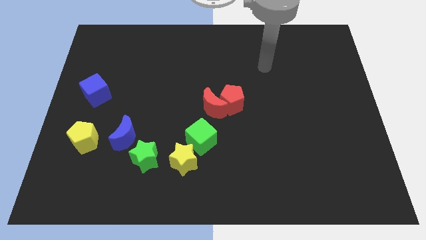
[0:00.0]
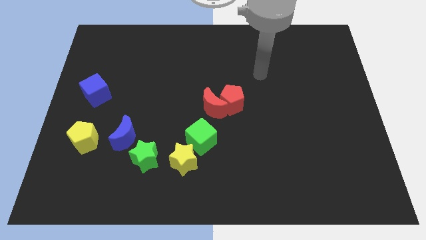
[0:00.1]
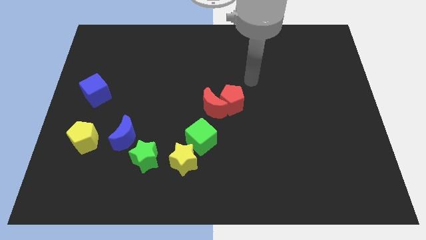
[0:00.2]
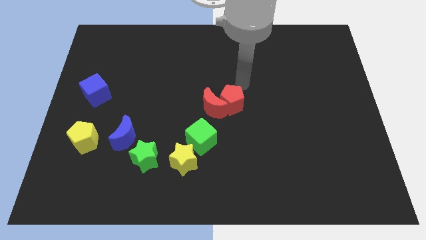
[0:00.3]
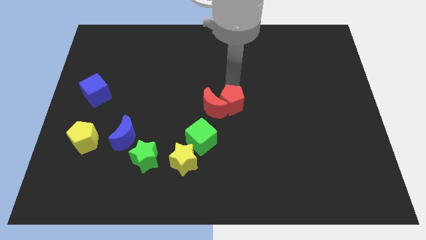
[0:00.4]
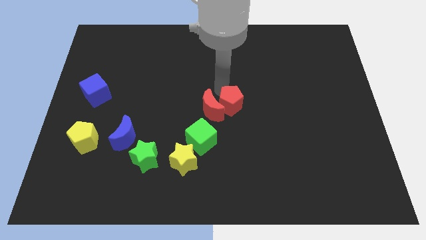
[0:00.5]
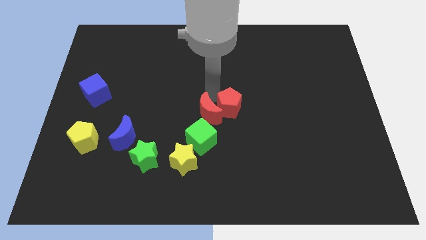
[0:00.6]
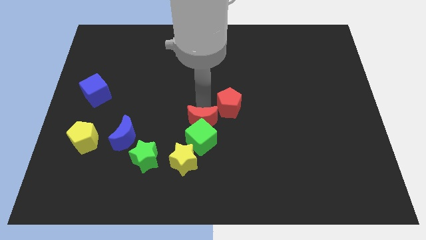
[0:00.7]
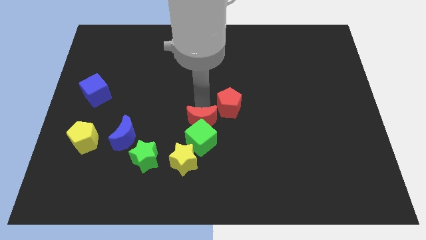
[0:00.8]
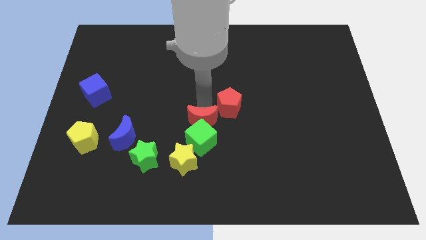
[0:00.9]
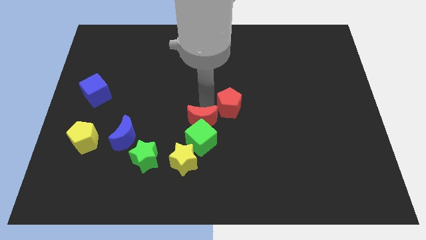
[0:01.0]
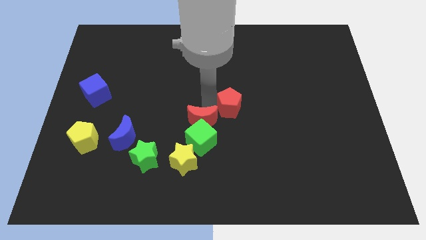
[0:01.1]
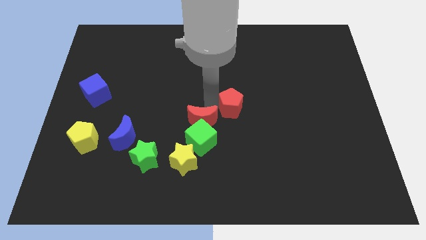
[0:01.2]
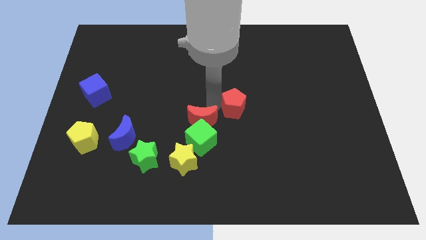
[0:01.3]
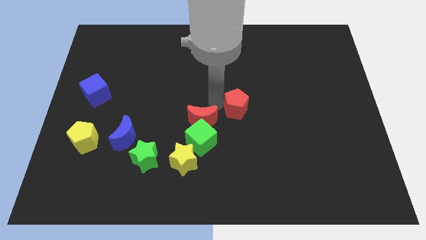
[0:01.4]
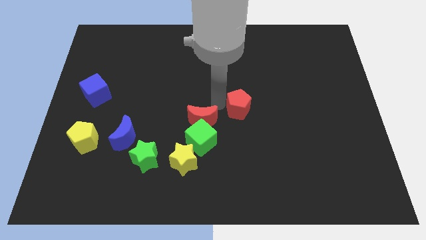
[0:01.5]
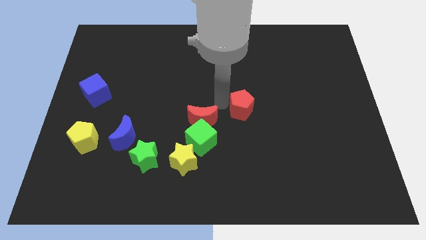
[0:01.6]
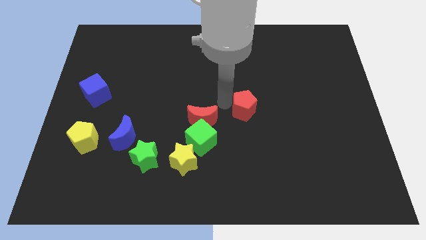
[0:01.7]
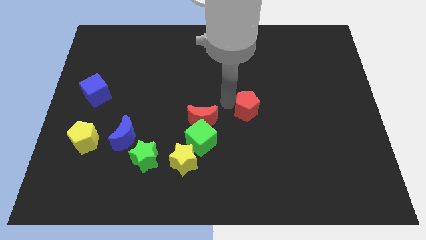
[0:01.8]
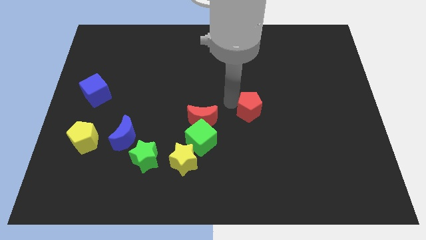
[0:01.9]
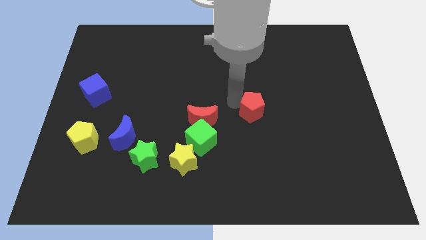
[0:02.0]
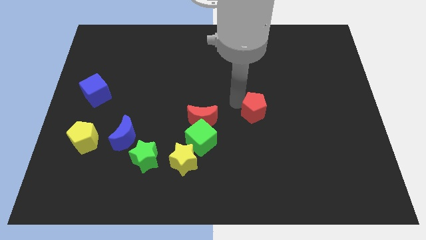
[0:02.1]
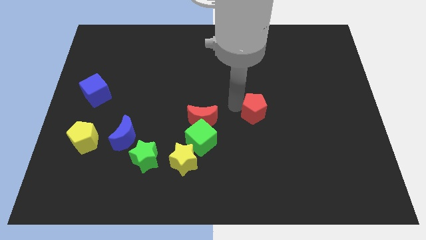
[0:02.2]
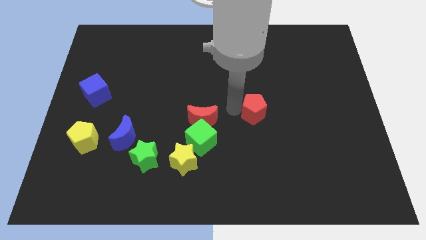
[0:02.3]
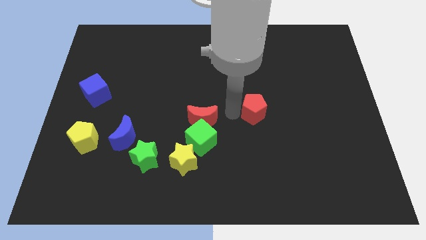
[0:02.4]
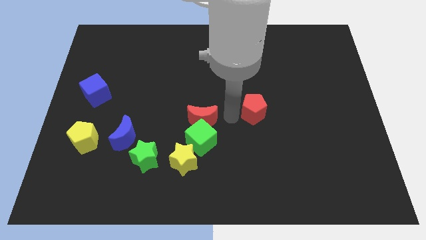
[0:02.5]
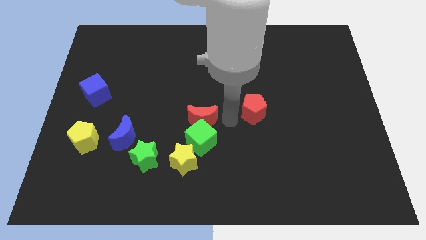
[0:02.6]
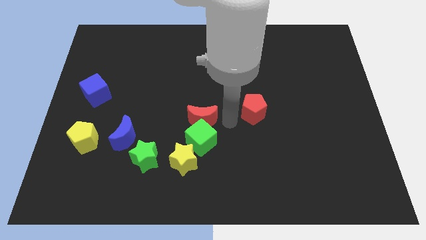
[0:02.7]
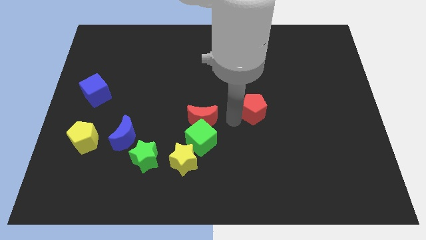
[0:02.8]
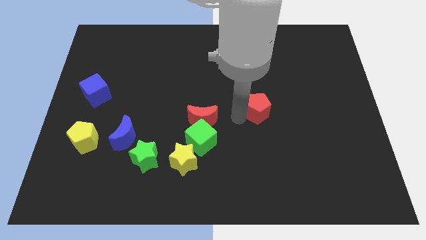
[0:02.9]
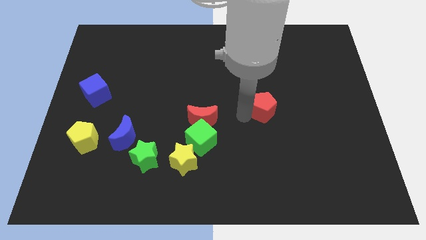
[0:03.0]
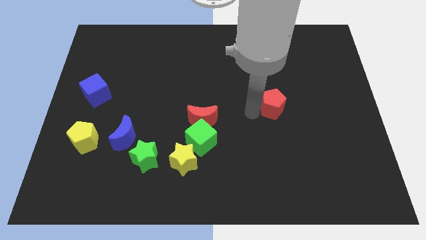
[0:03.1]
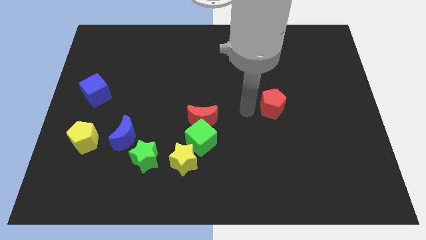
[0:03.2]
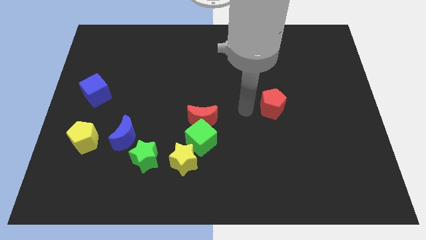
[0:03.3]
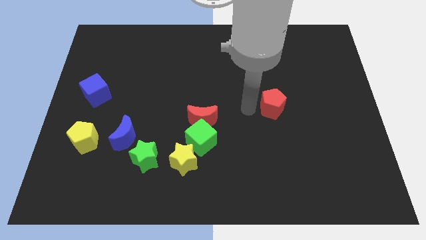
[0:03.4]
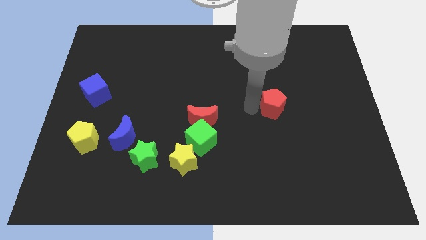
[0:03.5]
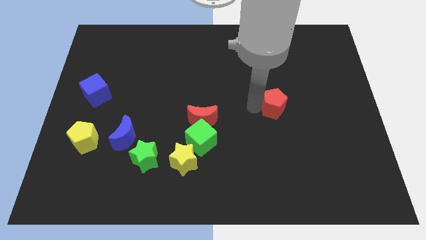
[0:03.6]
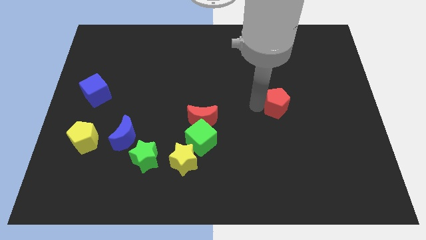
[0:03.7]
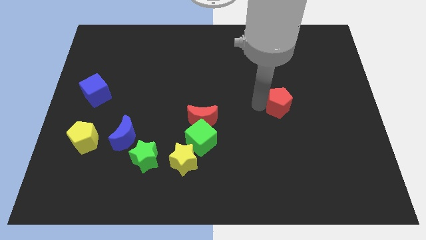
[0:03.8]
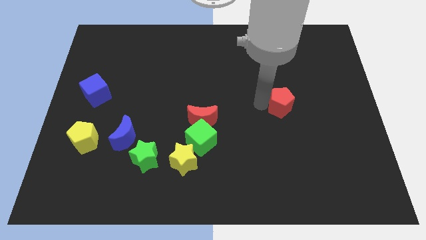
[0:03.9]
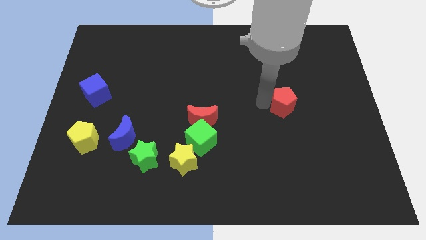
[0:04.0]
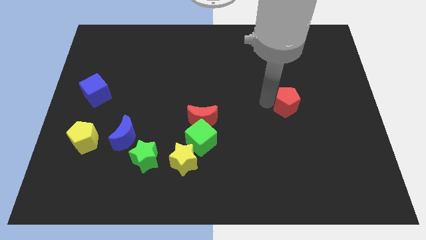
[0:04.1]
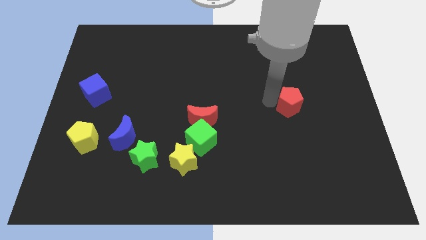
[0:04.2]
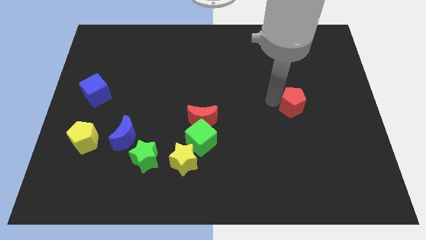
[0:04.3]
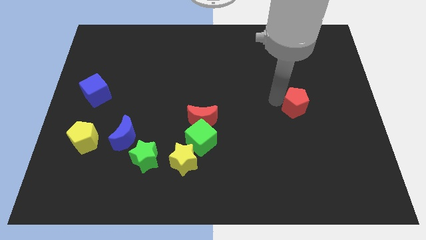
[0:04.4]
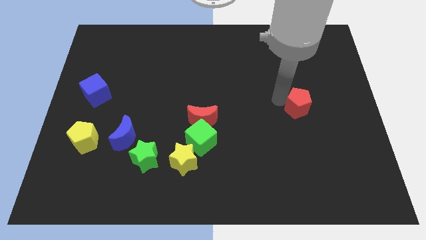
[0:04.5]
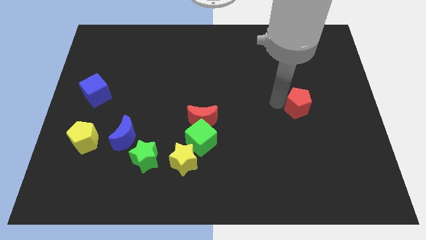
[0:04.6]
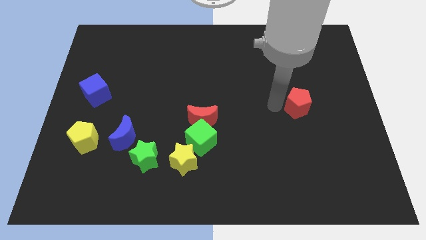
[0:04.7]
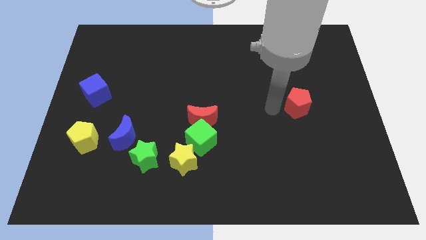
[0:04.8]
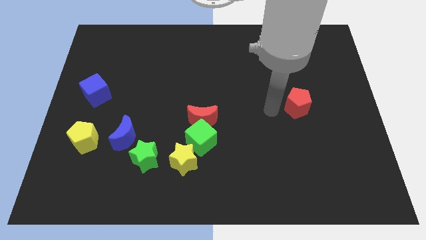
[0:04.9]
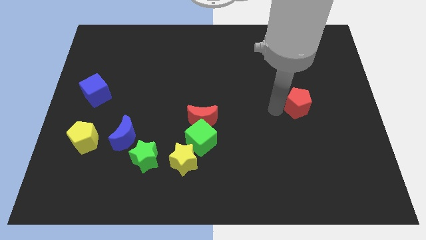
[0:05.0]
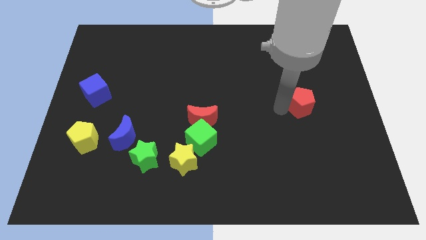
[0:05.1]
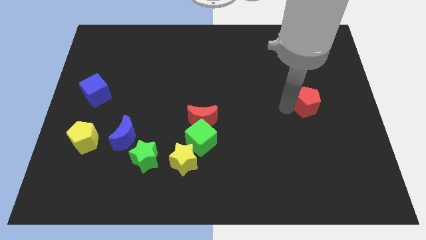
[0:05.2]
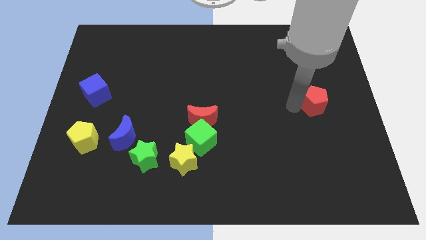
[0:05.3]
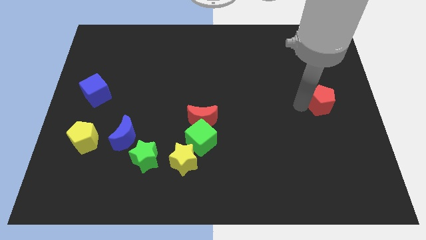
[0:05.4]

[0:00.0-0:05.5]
push the red pentagon to the right side

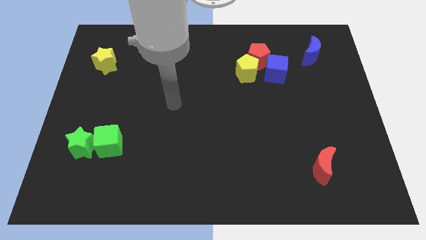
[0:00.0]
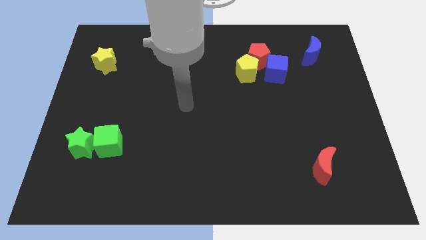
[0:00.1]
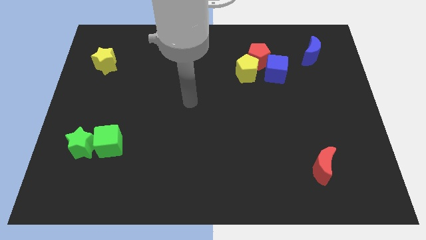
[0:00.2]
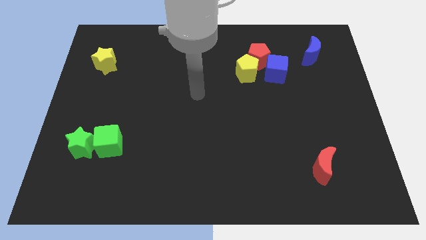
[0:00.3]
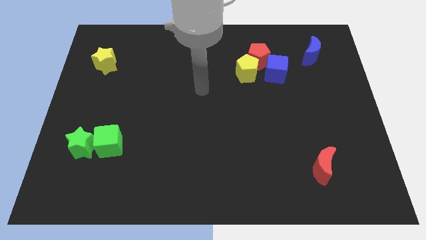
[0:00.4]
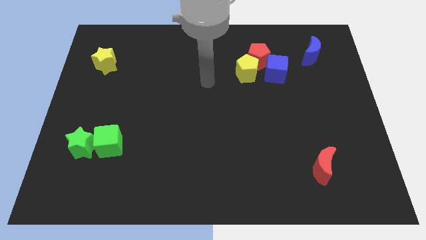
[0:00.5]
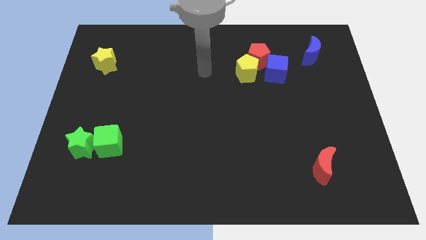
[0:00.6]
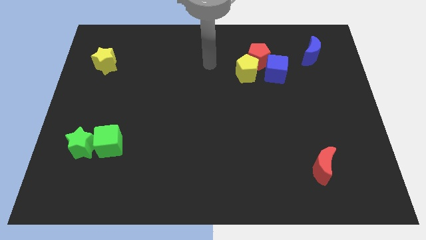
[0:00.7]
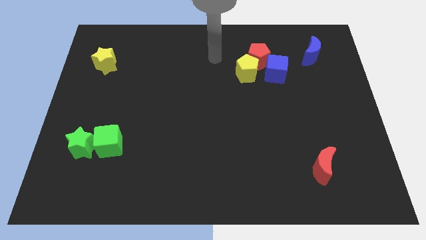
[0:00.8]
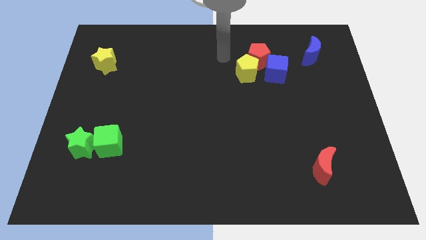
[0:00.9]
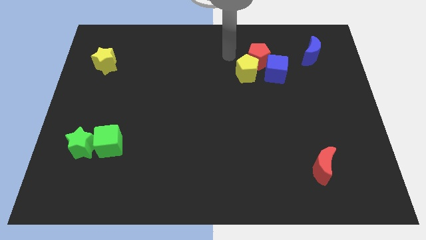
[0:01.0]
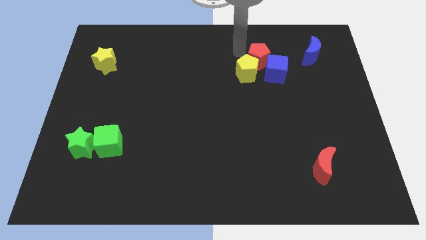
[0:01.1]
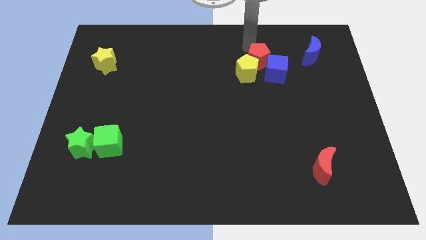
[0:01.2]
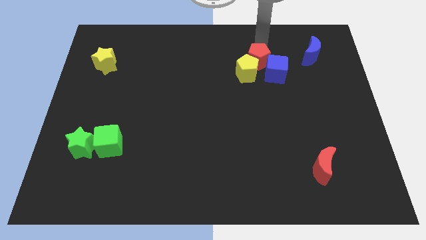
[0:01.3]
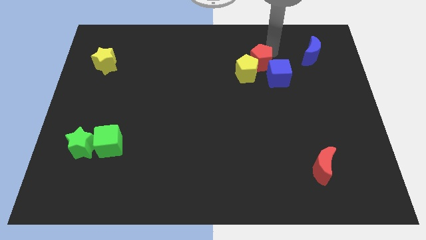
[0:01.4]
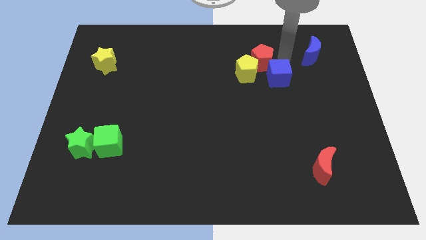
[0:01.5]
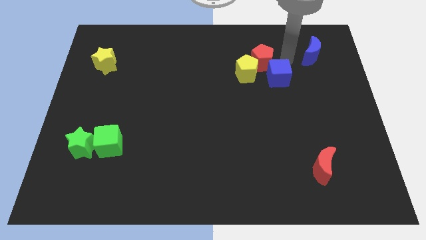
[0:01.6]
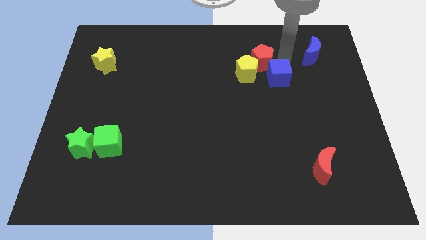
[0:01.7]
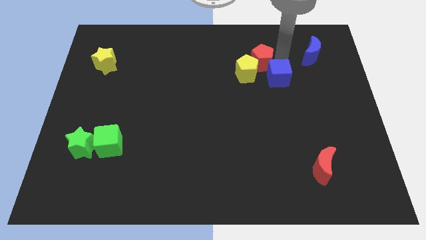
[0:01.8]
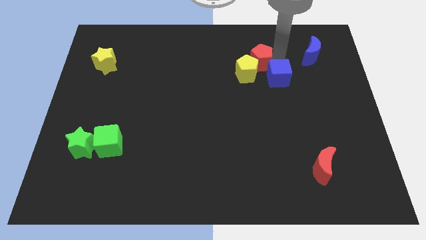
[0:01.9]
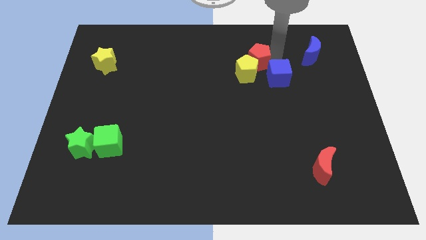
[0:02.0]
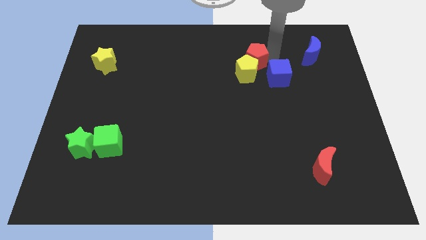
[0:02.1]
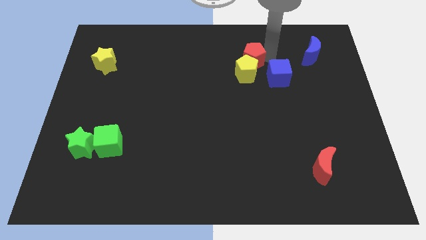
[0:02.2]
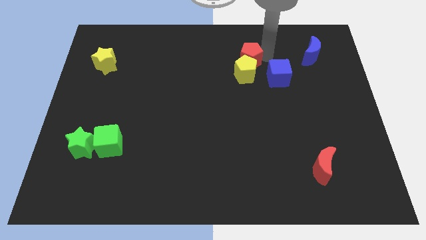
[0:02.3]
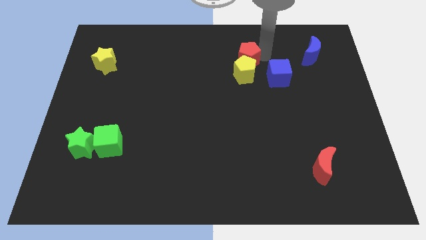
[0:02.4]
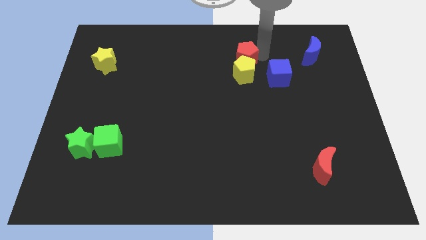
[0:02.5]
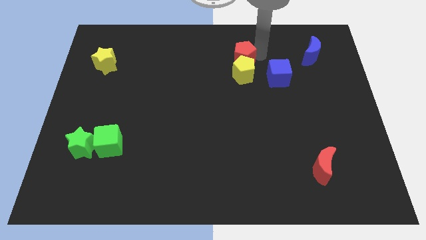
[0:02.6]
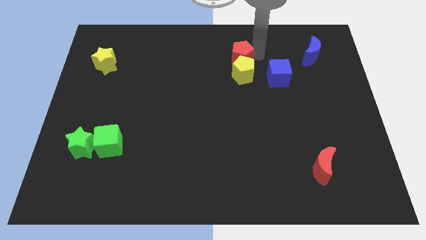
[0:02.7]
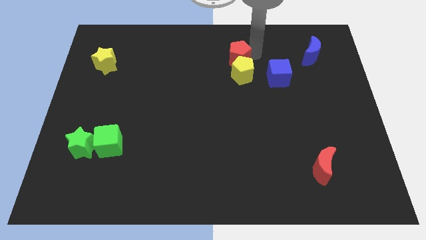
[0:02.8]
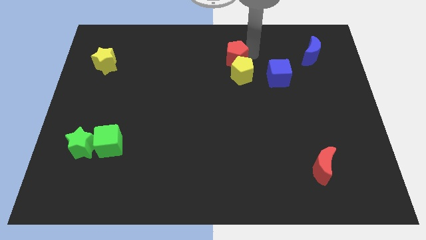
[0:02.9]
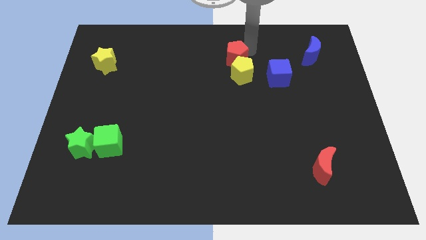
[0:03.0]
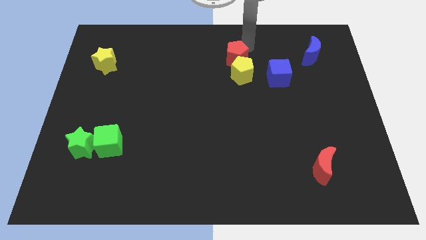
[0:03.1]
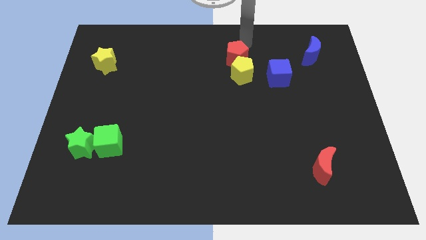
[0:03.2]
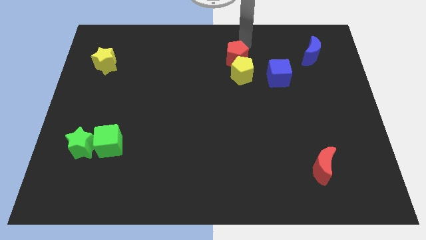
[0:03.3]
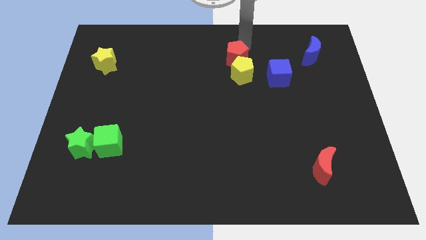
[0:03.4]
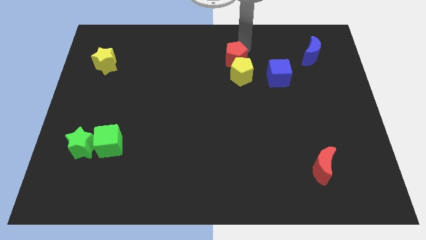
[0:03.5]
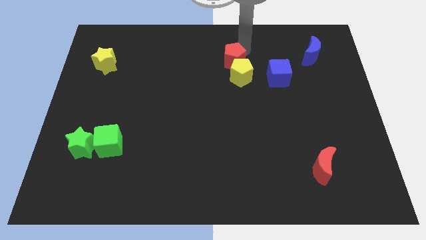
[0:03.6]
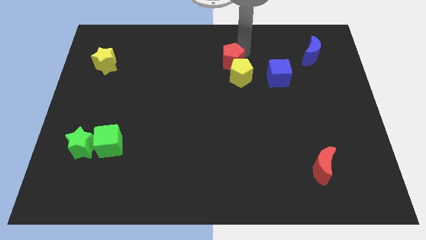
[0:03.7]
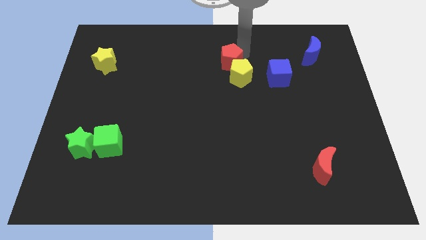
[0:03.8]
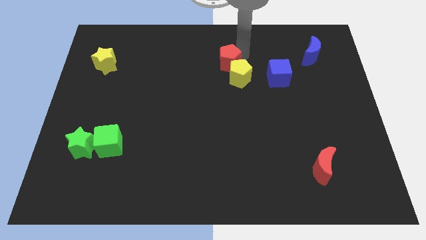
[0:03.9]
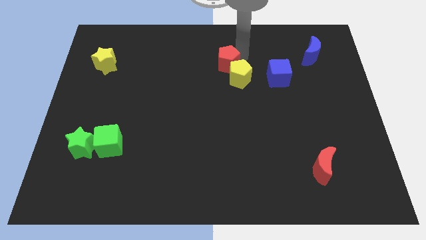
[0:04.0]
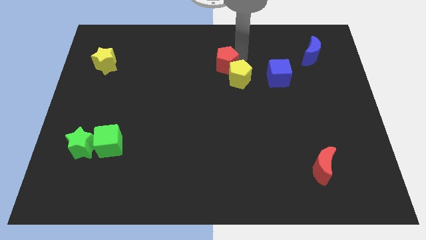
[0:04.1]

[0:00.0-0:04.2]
move the red pentagon to the center
